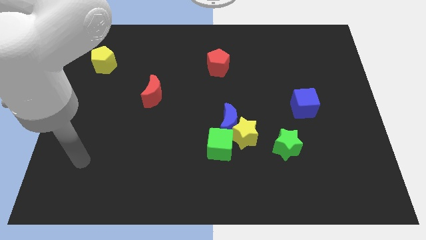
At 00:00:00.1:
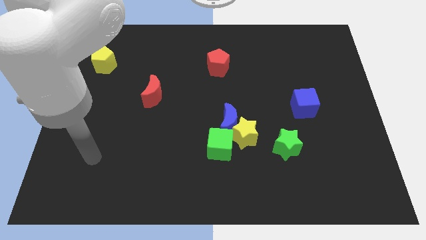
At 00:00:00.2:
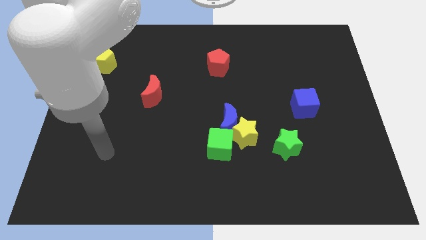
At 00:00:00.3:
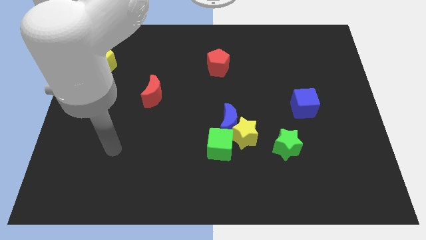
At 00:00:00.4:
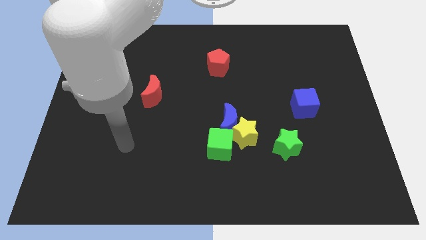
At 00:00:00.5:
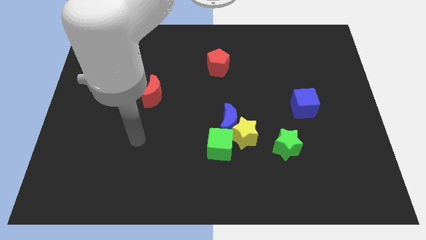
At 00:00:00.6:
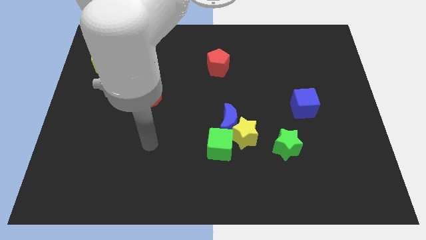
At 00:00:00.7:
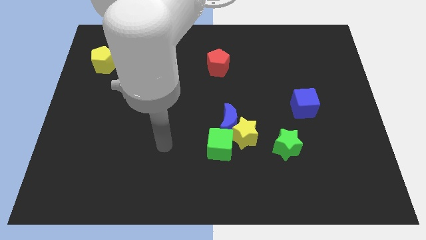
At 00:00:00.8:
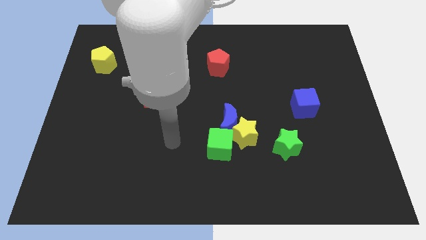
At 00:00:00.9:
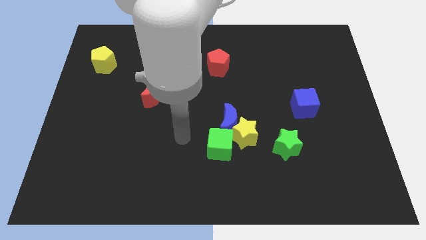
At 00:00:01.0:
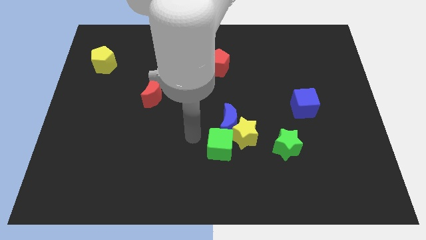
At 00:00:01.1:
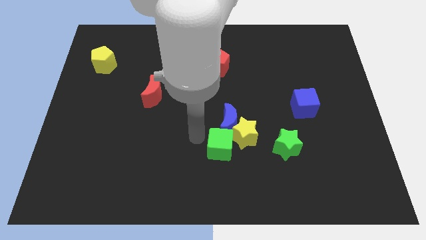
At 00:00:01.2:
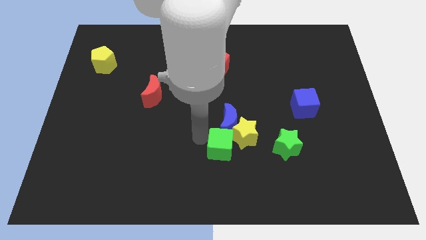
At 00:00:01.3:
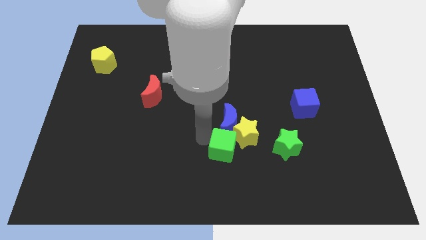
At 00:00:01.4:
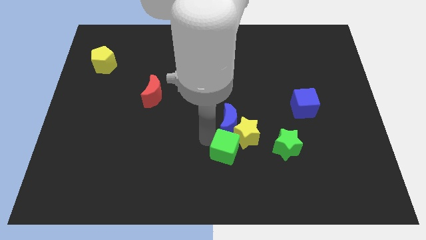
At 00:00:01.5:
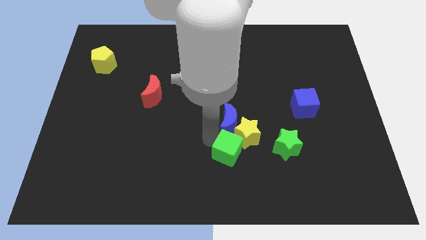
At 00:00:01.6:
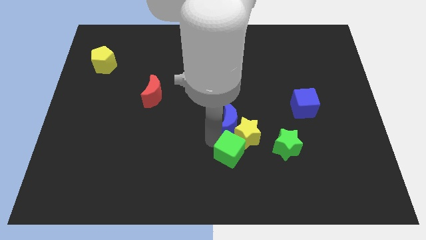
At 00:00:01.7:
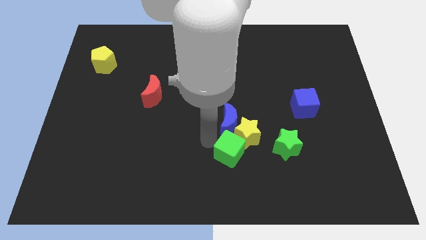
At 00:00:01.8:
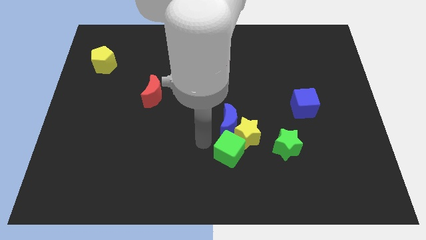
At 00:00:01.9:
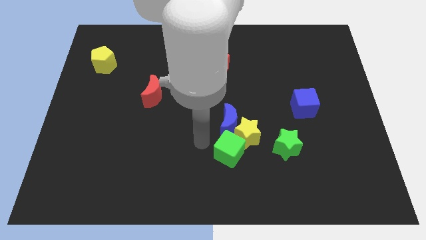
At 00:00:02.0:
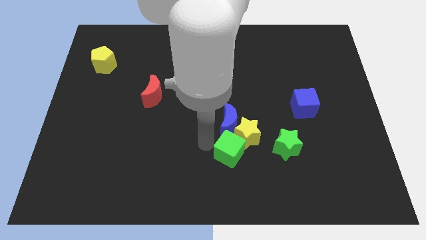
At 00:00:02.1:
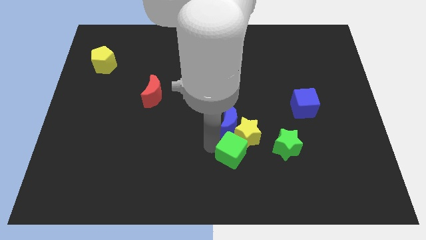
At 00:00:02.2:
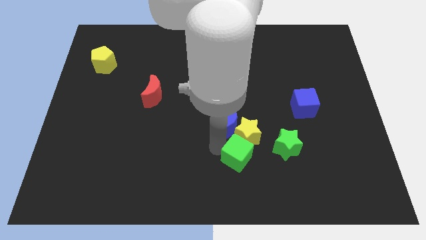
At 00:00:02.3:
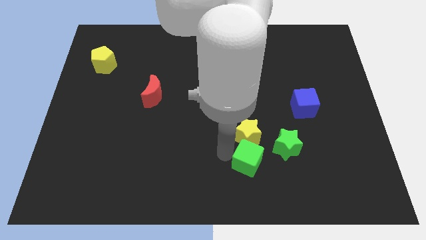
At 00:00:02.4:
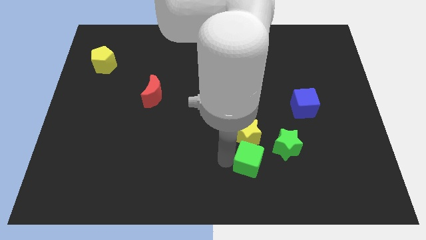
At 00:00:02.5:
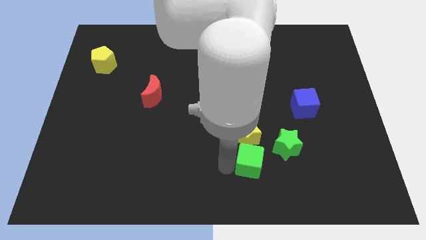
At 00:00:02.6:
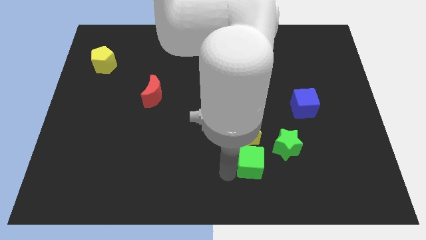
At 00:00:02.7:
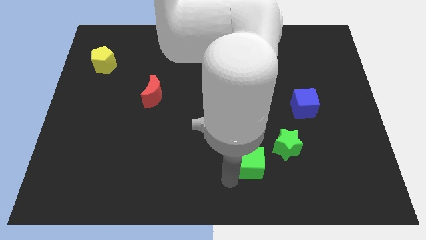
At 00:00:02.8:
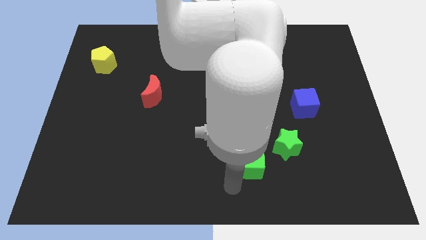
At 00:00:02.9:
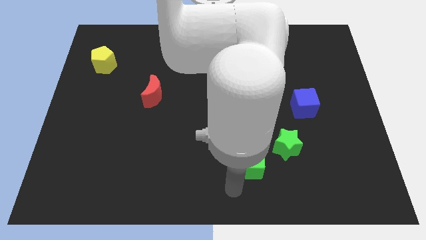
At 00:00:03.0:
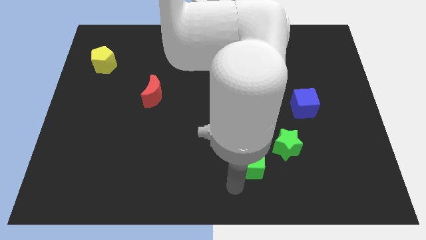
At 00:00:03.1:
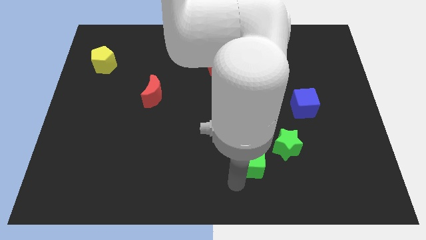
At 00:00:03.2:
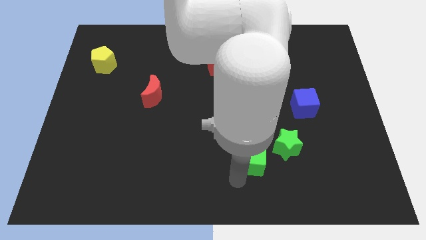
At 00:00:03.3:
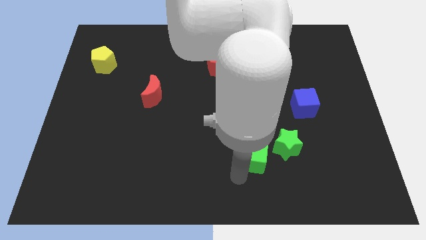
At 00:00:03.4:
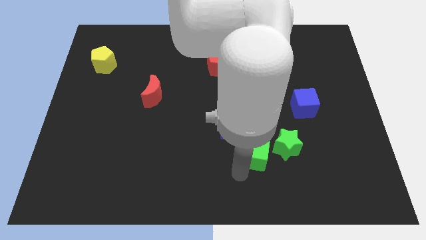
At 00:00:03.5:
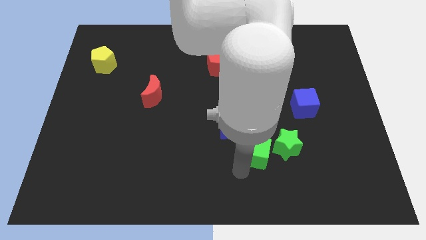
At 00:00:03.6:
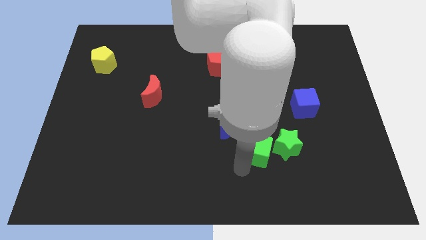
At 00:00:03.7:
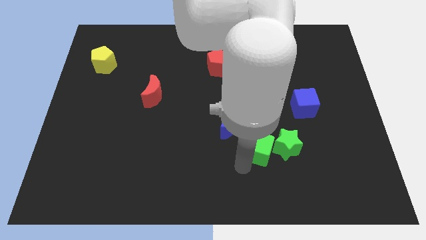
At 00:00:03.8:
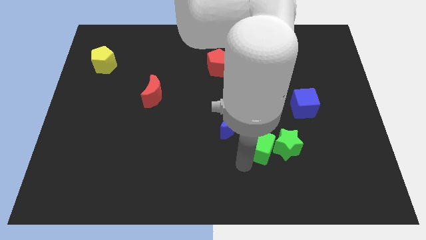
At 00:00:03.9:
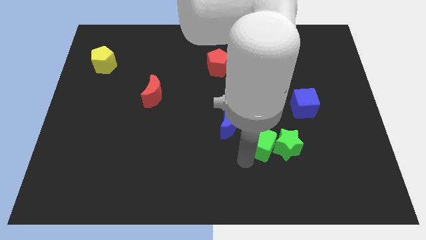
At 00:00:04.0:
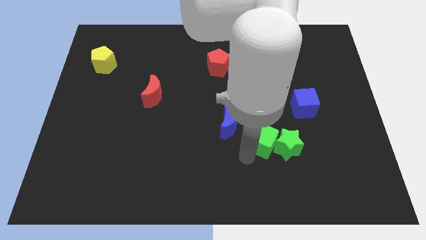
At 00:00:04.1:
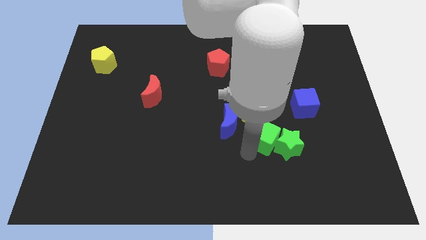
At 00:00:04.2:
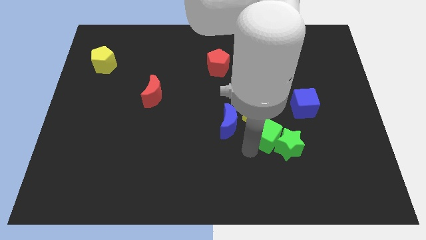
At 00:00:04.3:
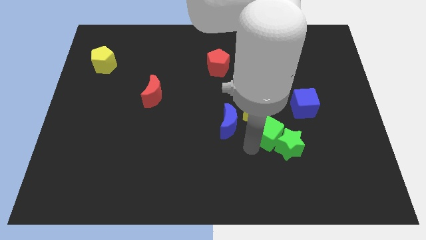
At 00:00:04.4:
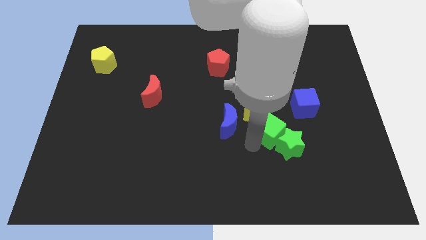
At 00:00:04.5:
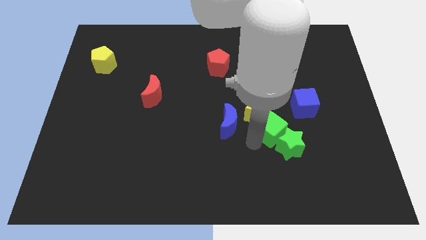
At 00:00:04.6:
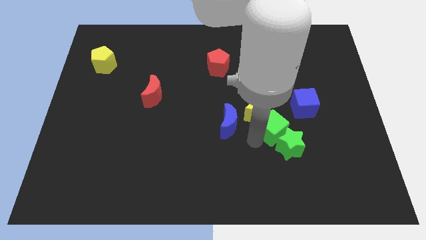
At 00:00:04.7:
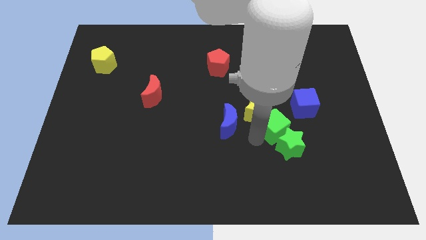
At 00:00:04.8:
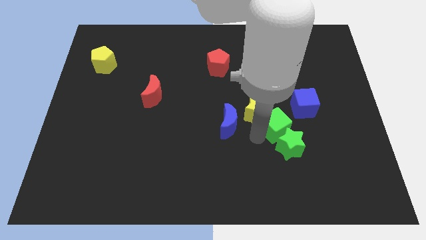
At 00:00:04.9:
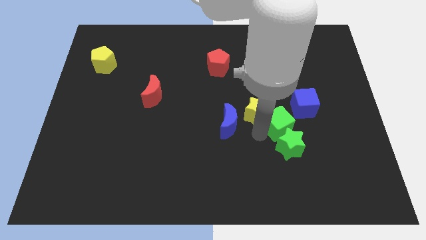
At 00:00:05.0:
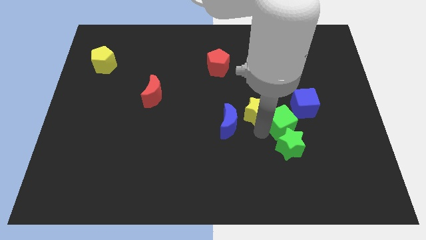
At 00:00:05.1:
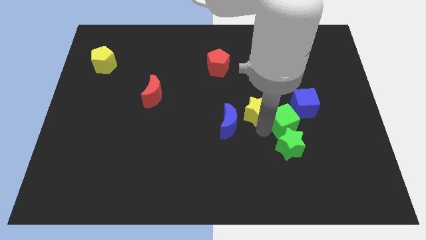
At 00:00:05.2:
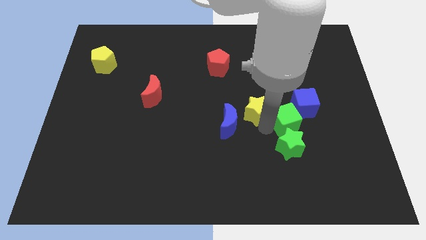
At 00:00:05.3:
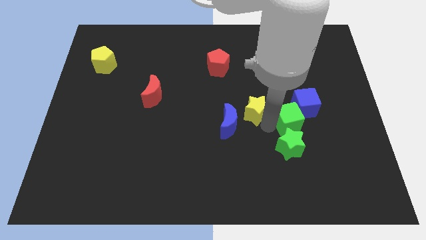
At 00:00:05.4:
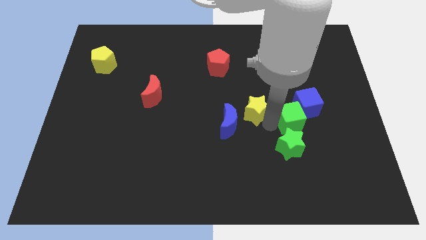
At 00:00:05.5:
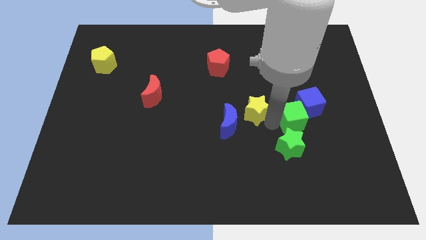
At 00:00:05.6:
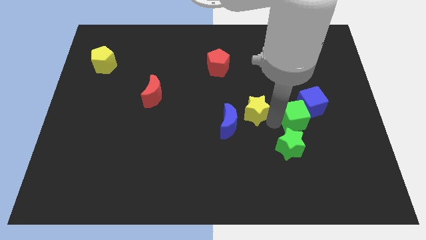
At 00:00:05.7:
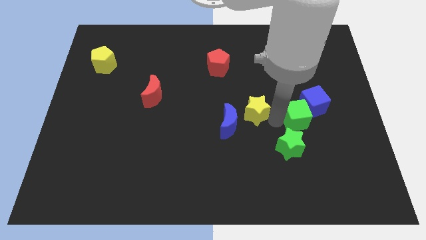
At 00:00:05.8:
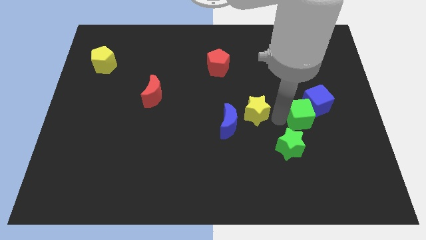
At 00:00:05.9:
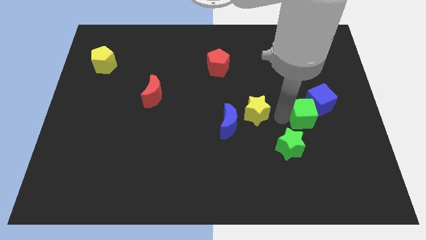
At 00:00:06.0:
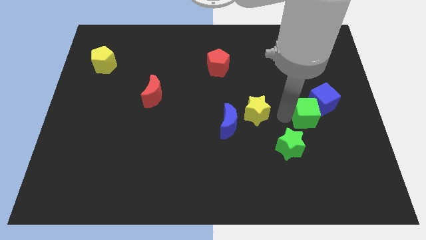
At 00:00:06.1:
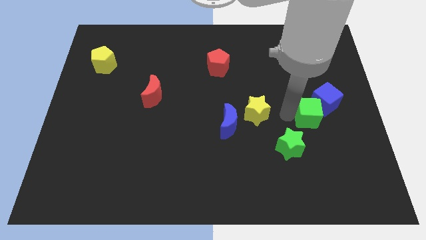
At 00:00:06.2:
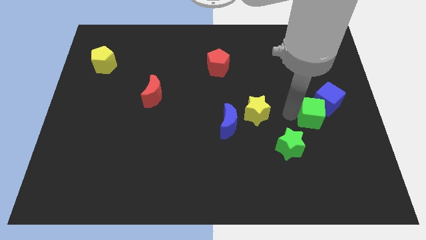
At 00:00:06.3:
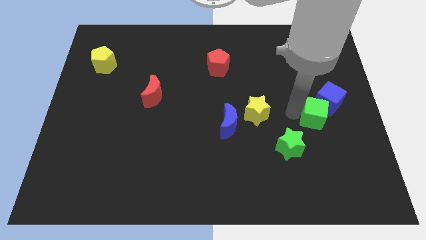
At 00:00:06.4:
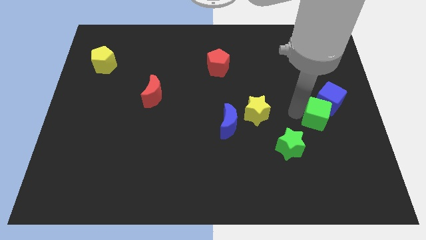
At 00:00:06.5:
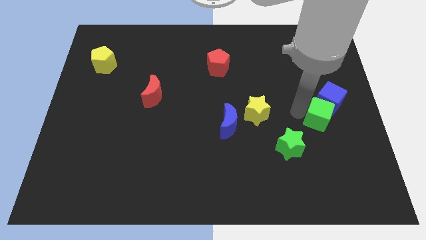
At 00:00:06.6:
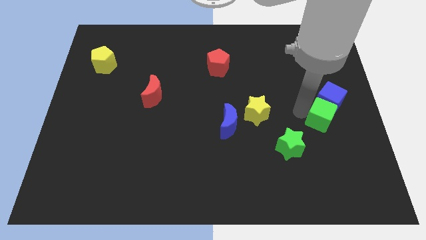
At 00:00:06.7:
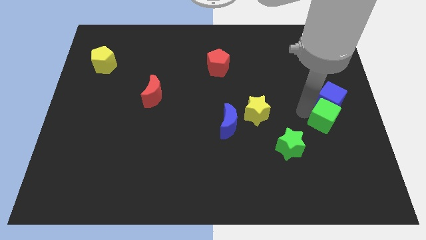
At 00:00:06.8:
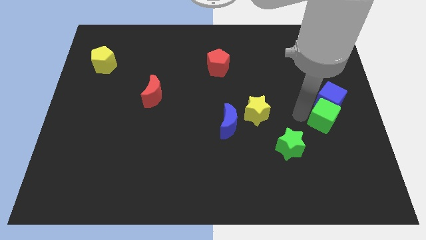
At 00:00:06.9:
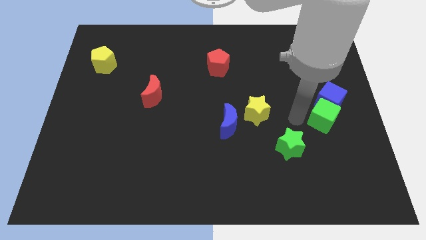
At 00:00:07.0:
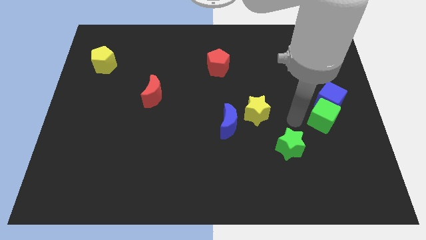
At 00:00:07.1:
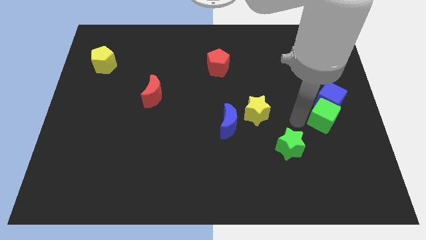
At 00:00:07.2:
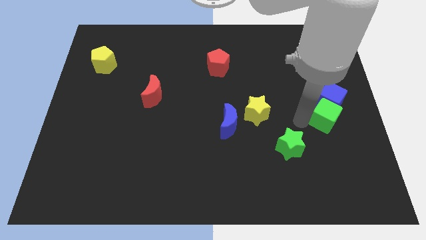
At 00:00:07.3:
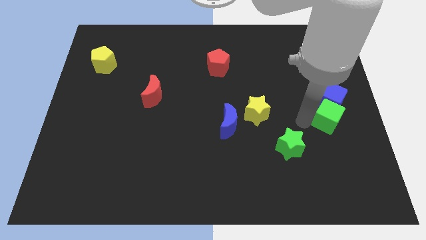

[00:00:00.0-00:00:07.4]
push the green cube to the right side

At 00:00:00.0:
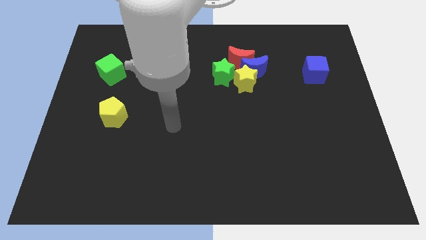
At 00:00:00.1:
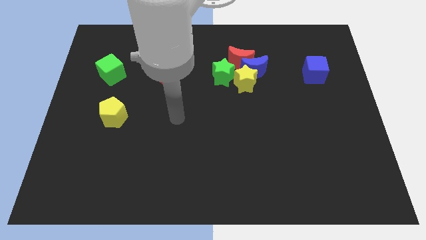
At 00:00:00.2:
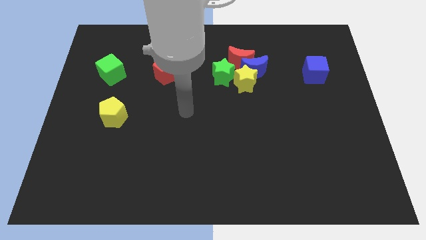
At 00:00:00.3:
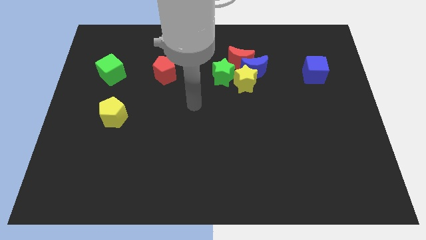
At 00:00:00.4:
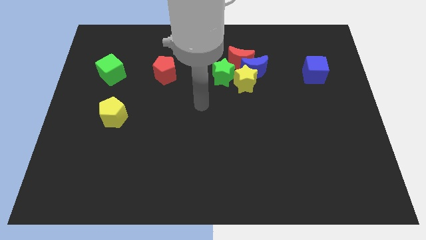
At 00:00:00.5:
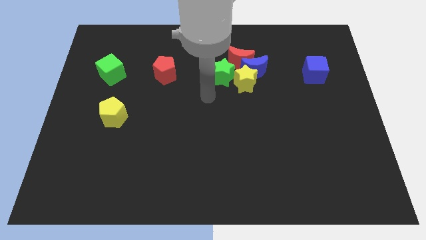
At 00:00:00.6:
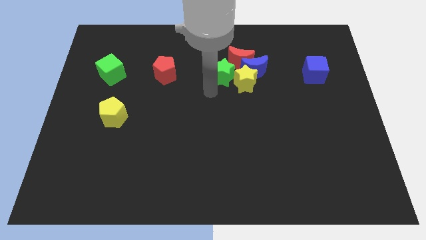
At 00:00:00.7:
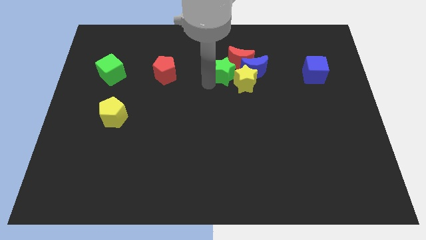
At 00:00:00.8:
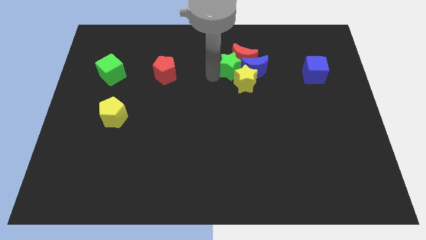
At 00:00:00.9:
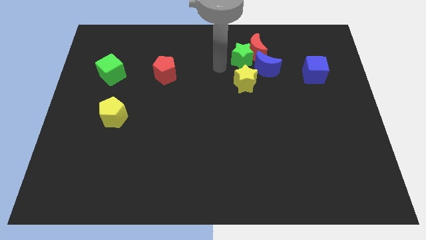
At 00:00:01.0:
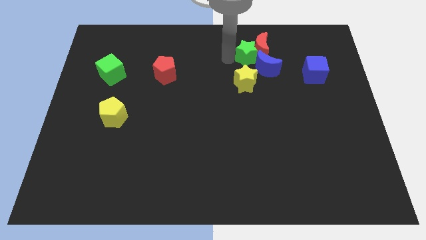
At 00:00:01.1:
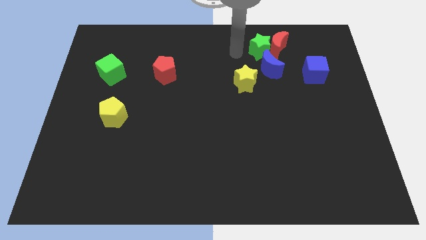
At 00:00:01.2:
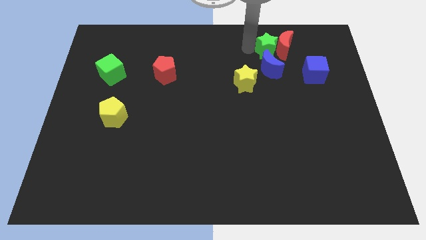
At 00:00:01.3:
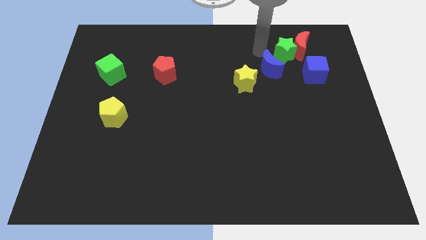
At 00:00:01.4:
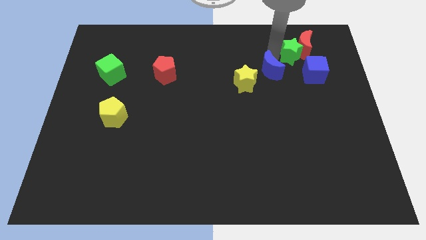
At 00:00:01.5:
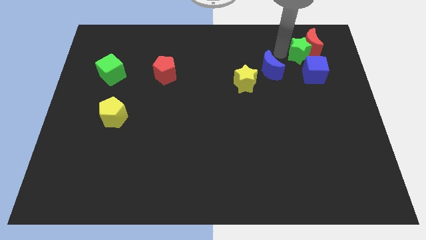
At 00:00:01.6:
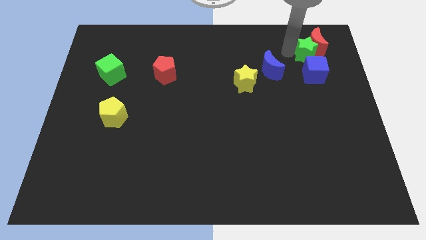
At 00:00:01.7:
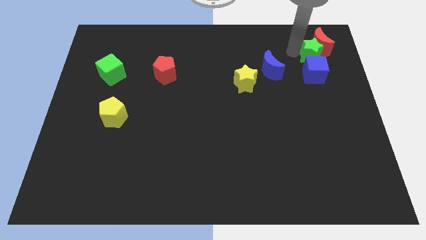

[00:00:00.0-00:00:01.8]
push the red moon to the top right of the board
